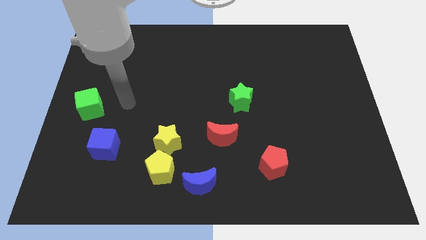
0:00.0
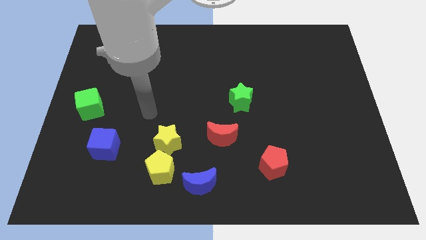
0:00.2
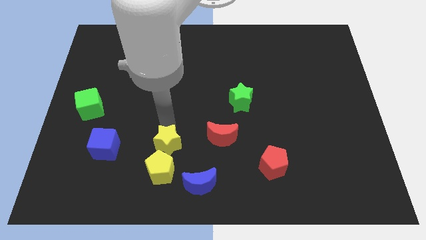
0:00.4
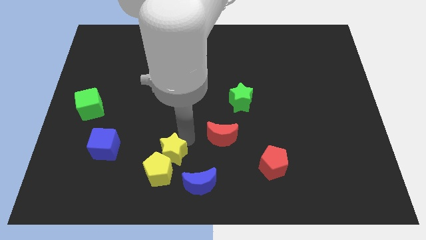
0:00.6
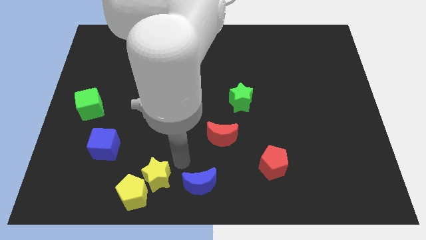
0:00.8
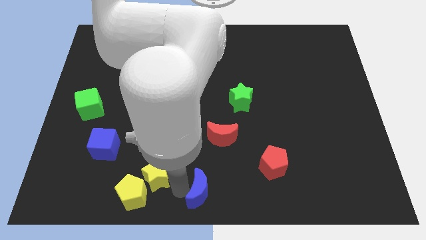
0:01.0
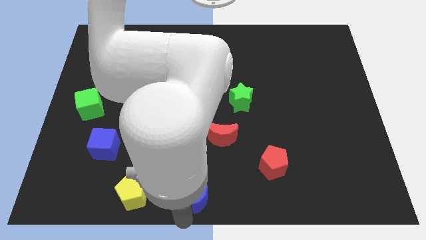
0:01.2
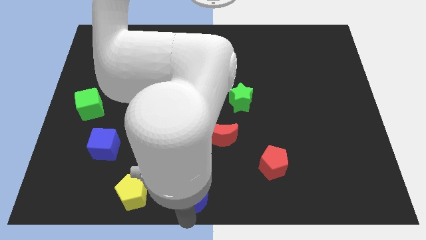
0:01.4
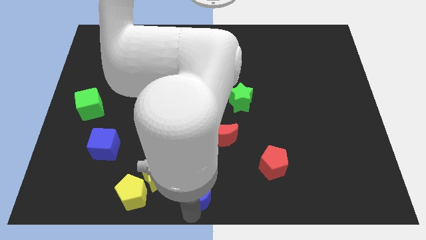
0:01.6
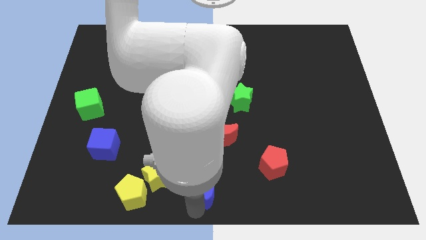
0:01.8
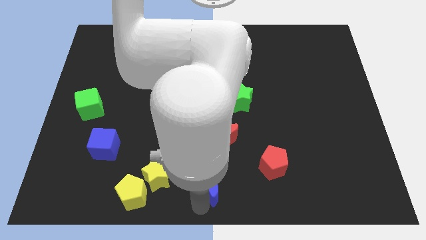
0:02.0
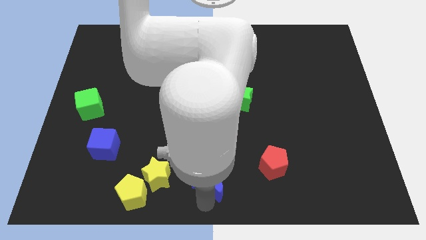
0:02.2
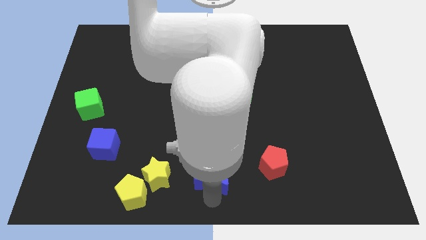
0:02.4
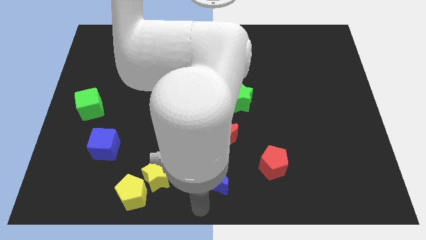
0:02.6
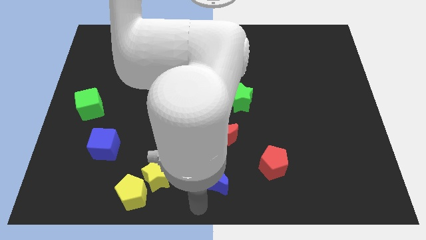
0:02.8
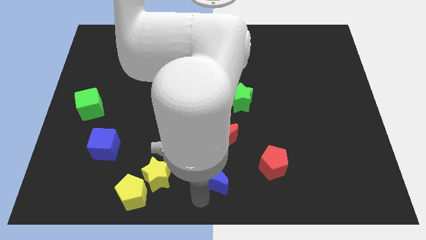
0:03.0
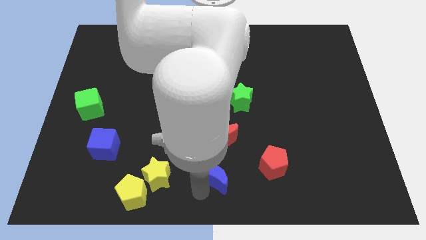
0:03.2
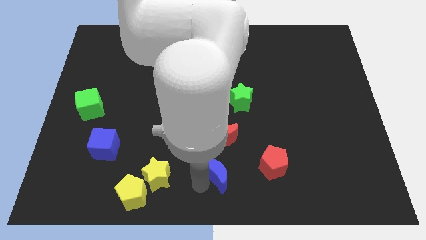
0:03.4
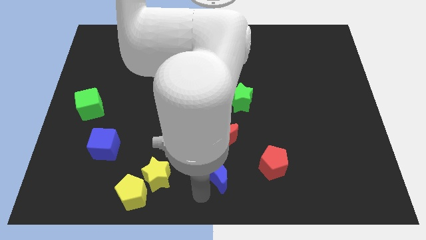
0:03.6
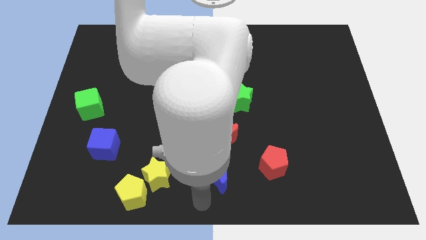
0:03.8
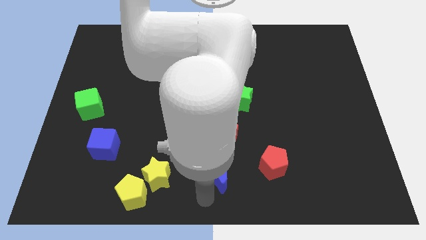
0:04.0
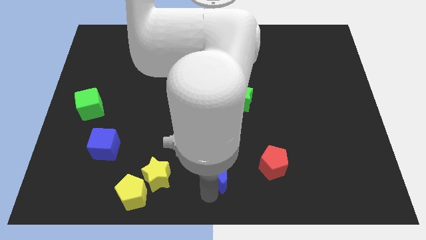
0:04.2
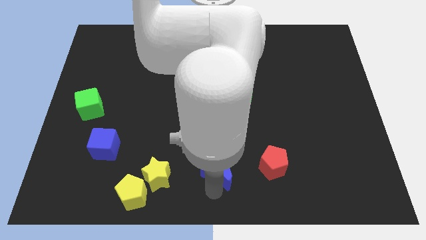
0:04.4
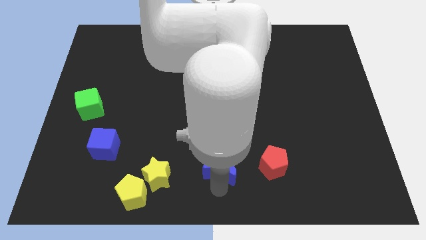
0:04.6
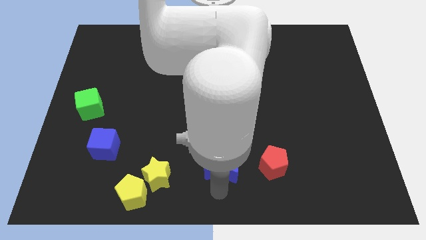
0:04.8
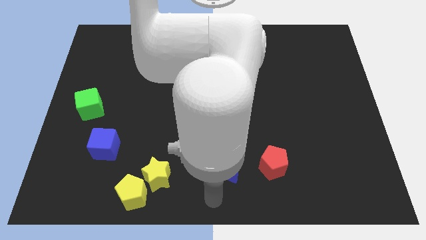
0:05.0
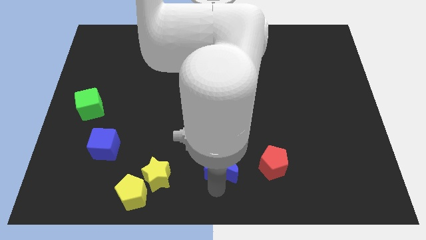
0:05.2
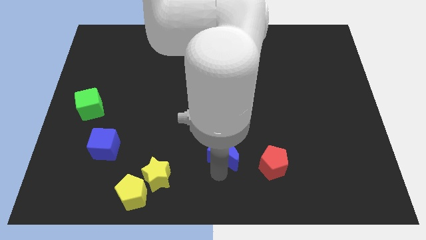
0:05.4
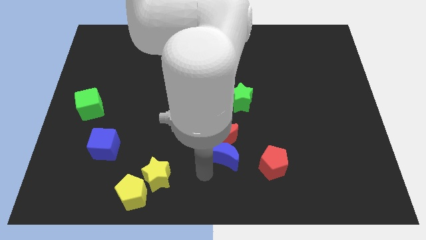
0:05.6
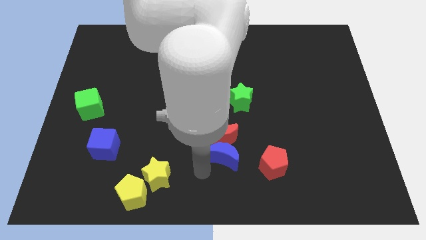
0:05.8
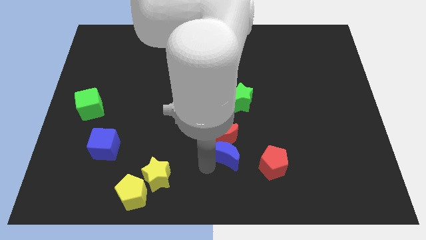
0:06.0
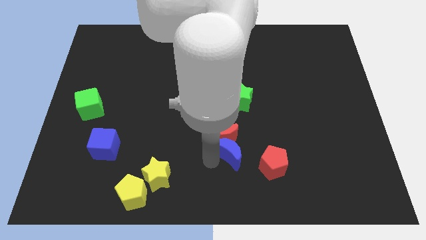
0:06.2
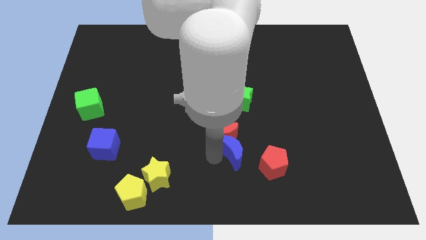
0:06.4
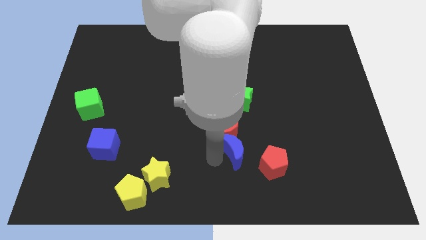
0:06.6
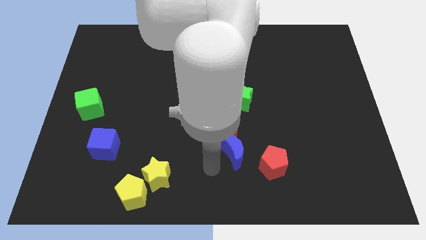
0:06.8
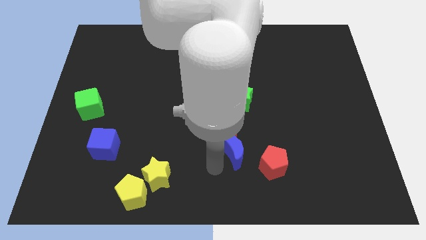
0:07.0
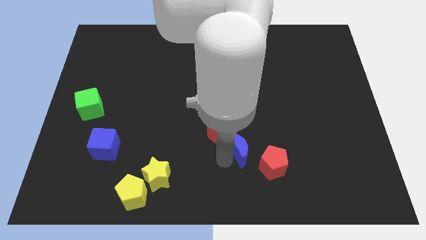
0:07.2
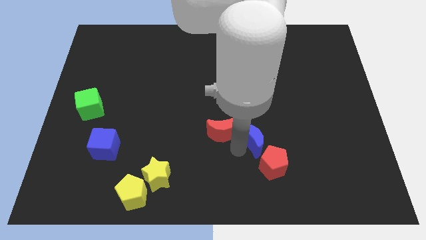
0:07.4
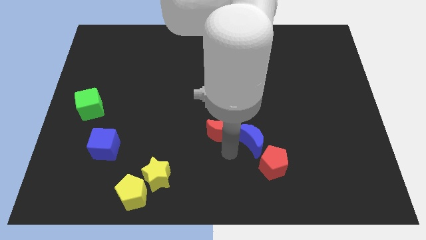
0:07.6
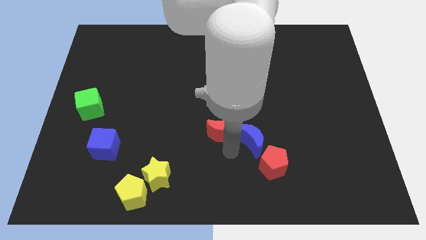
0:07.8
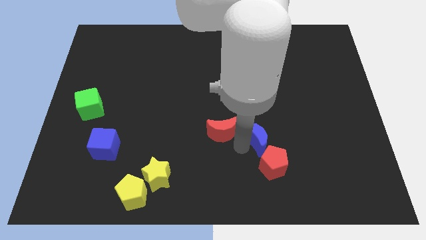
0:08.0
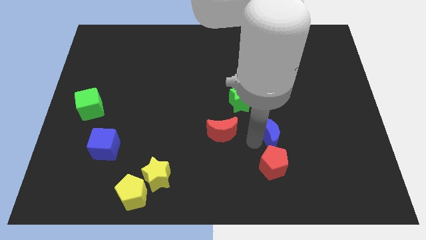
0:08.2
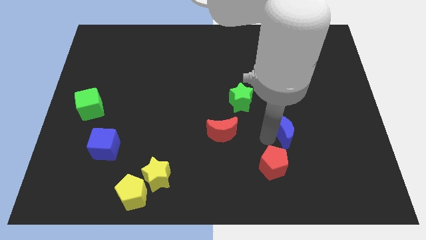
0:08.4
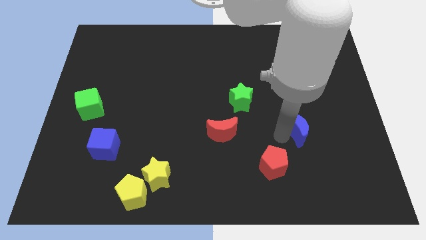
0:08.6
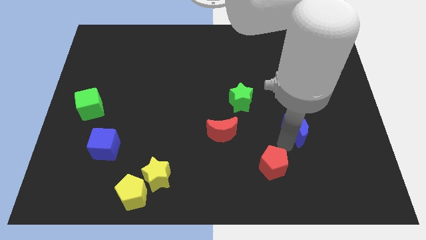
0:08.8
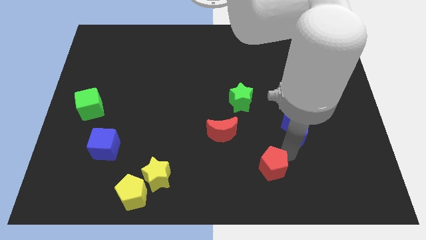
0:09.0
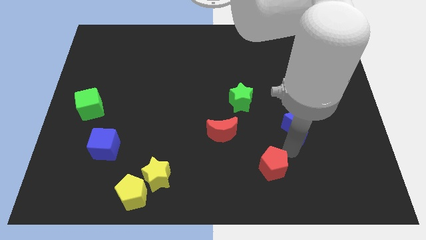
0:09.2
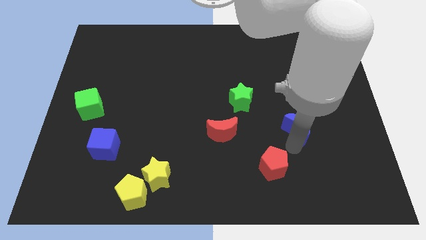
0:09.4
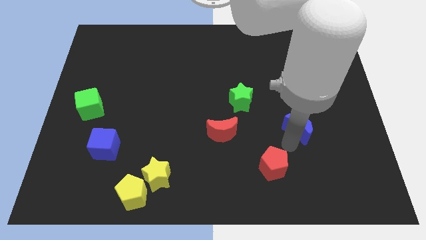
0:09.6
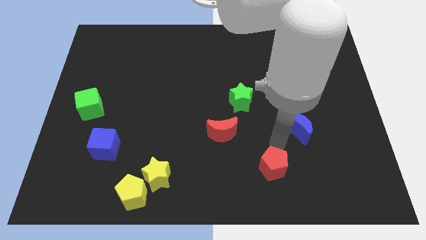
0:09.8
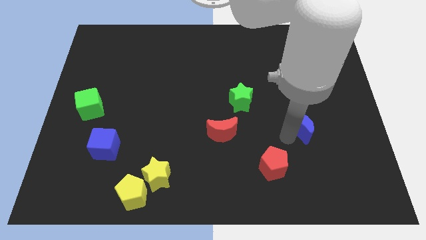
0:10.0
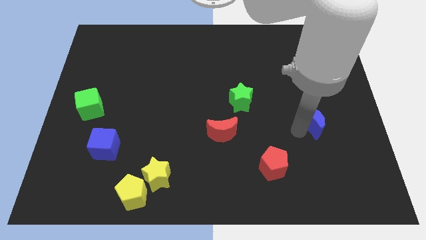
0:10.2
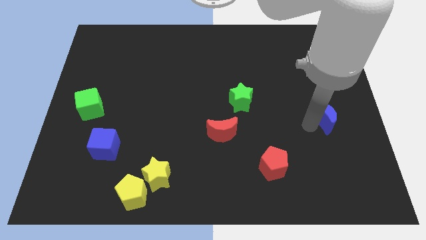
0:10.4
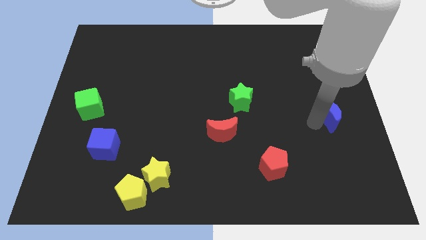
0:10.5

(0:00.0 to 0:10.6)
push the blue moon to the right side

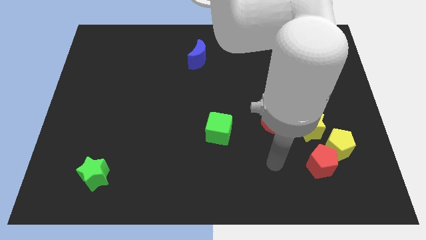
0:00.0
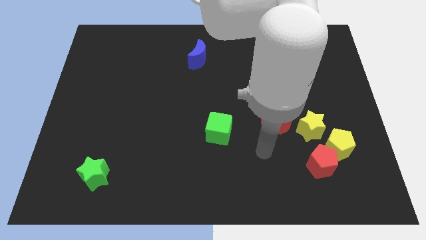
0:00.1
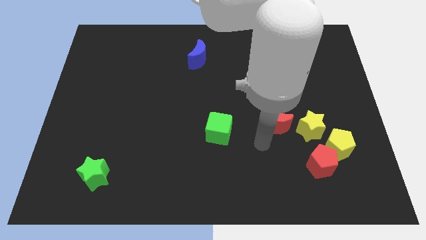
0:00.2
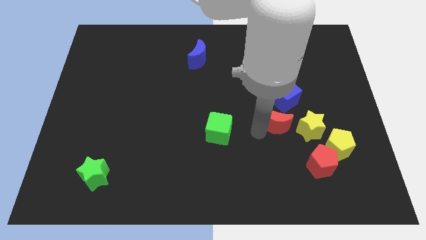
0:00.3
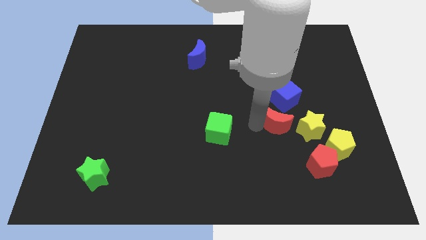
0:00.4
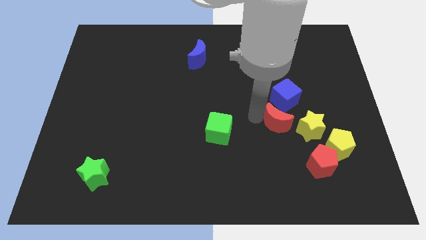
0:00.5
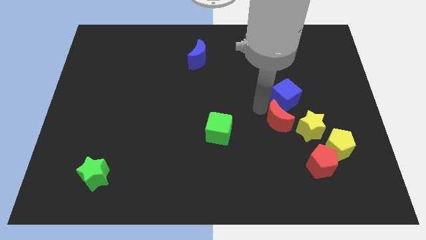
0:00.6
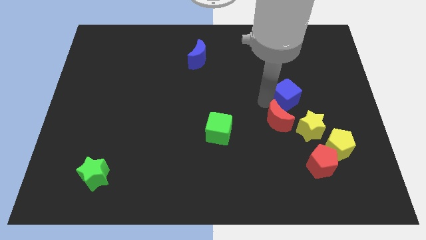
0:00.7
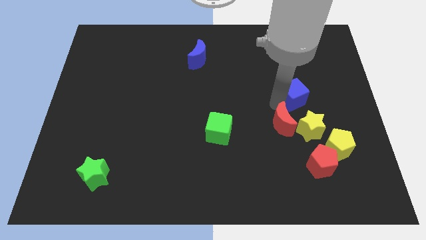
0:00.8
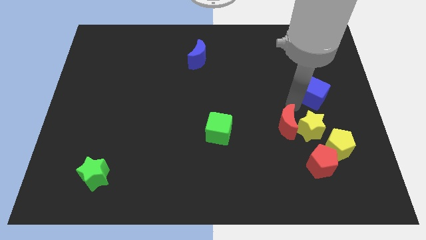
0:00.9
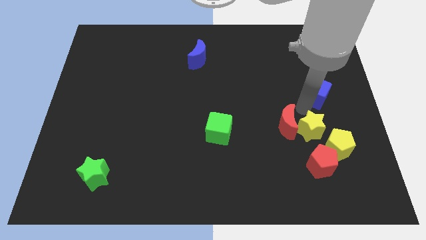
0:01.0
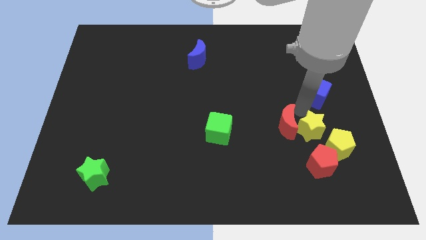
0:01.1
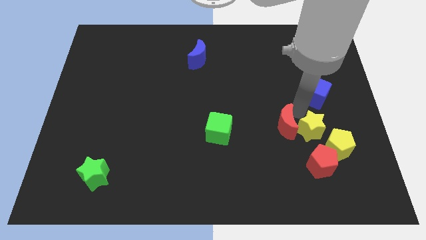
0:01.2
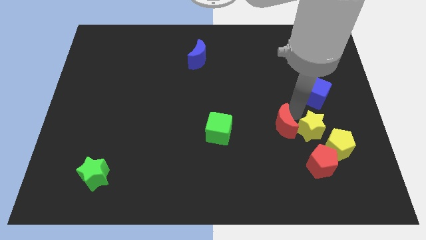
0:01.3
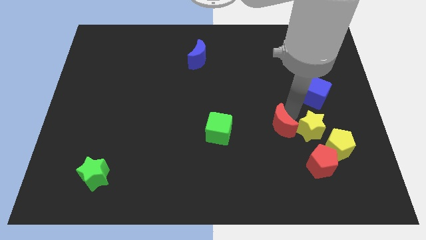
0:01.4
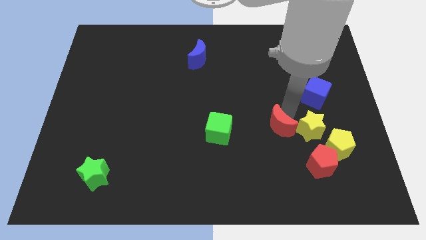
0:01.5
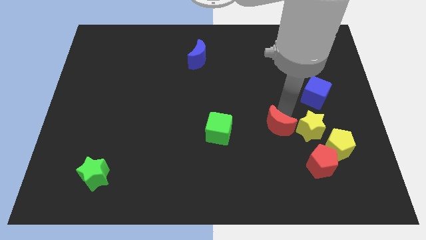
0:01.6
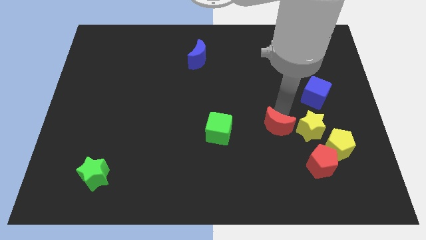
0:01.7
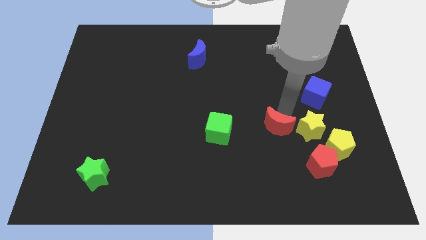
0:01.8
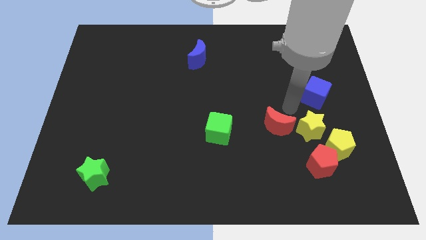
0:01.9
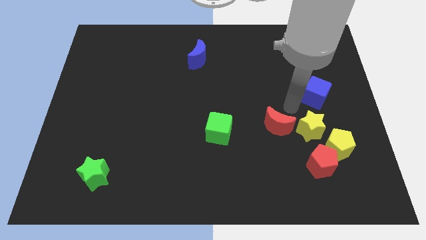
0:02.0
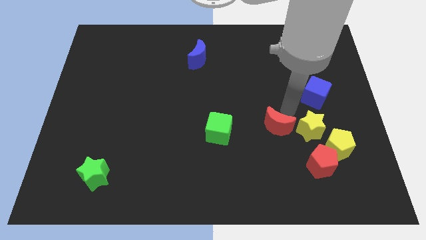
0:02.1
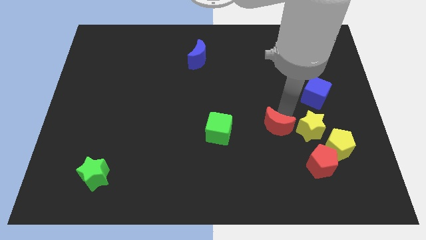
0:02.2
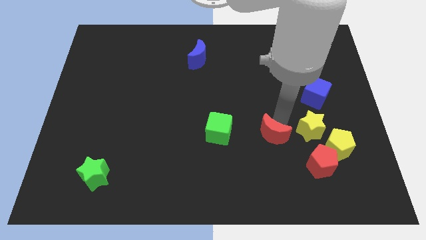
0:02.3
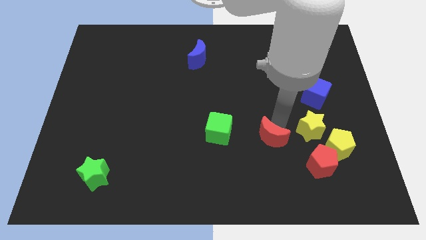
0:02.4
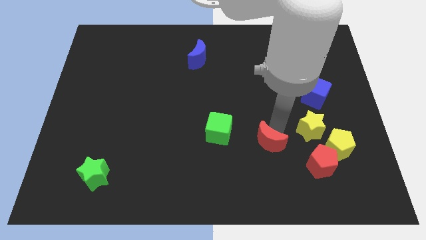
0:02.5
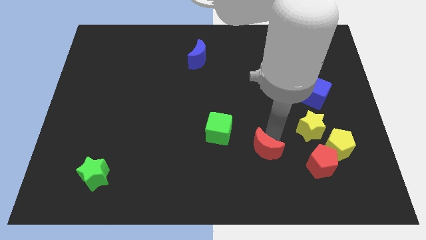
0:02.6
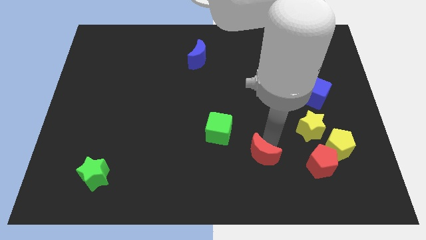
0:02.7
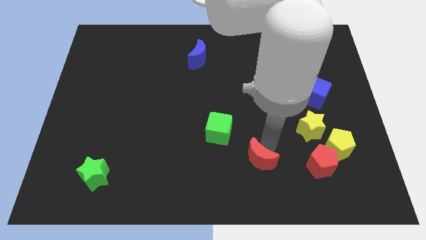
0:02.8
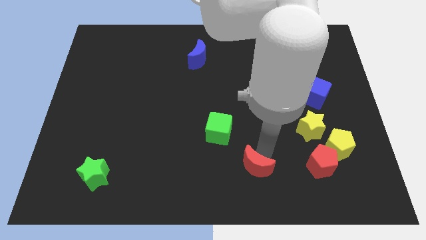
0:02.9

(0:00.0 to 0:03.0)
push the red moon to the bottom side
